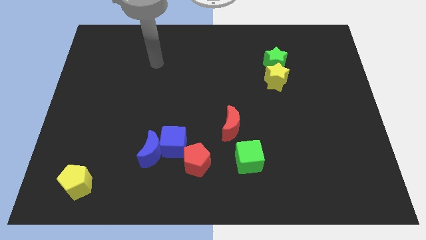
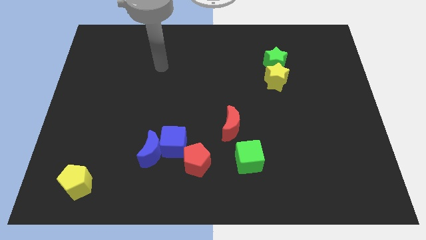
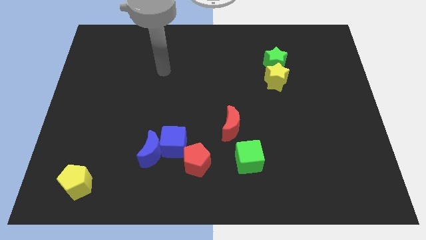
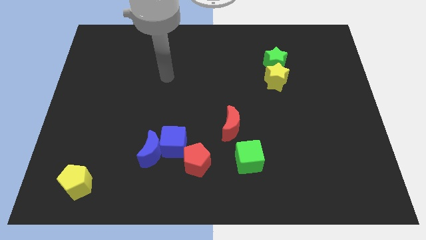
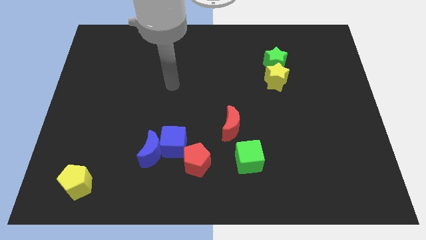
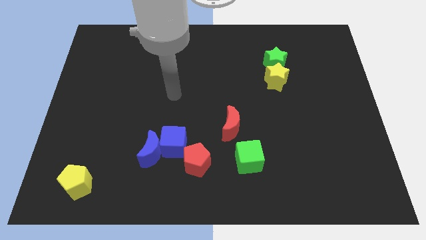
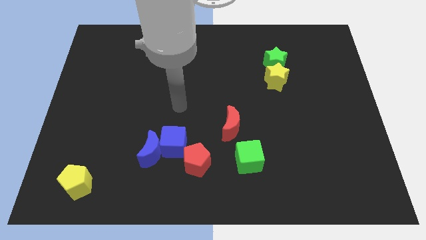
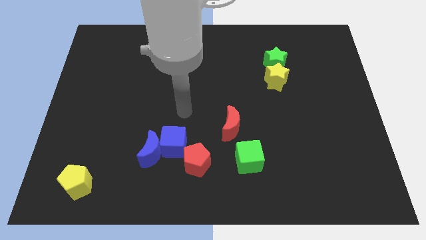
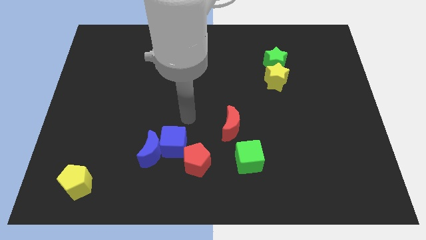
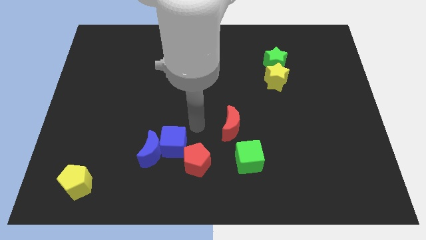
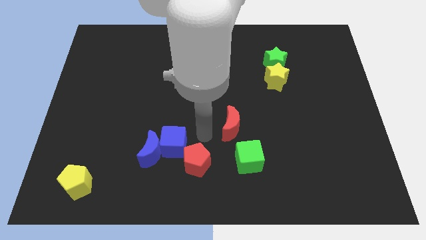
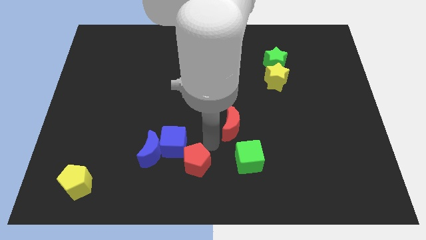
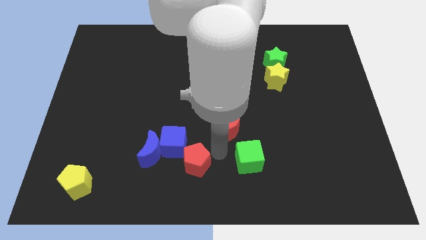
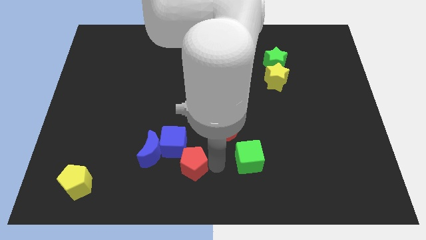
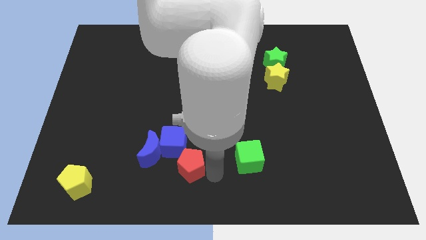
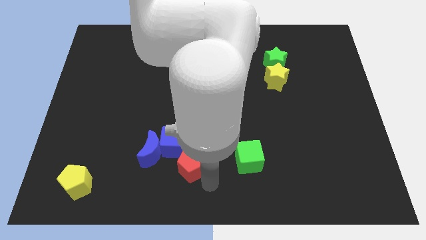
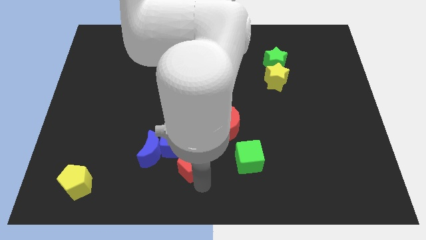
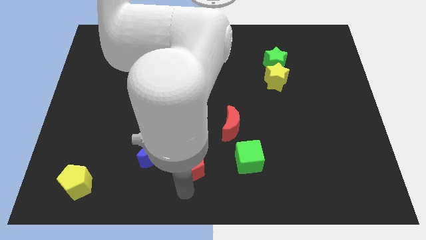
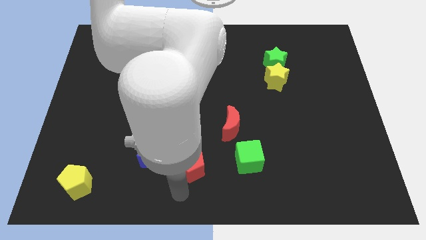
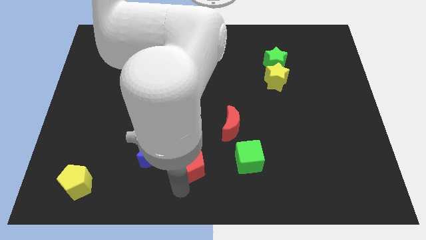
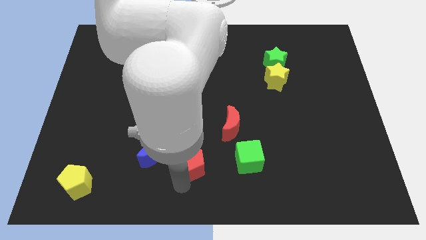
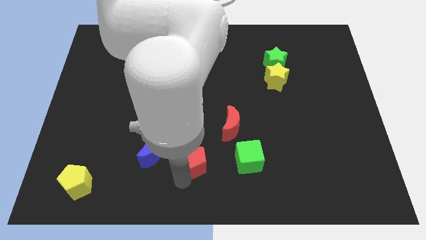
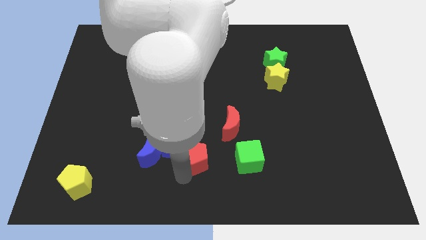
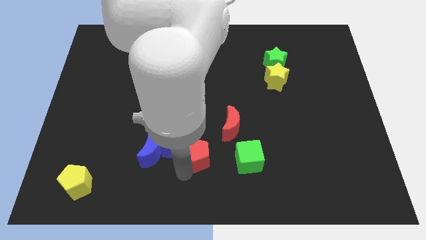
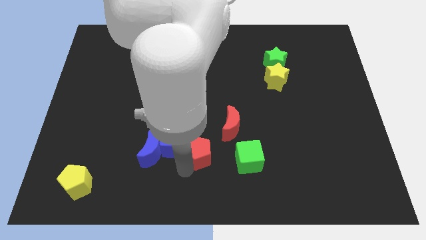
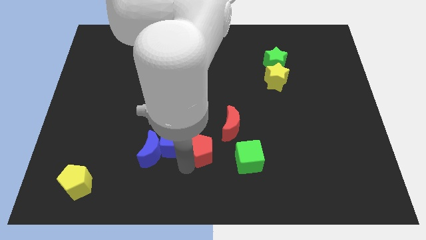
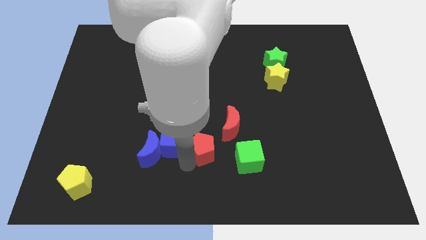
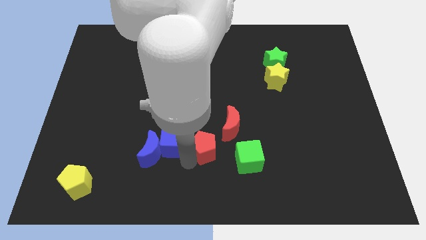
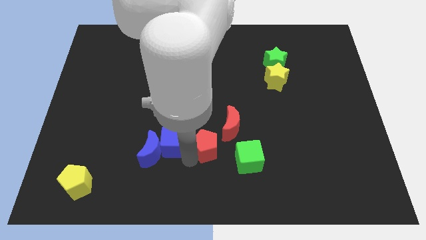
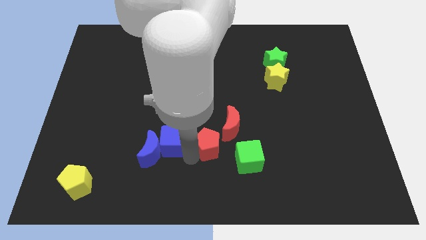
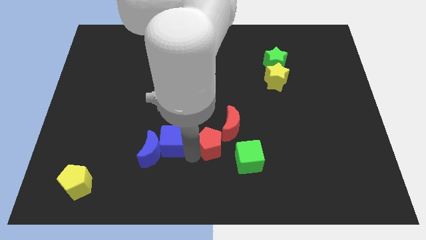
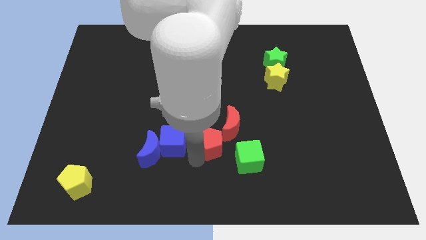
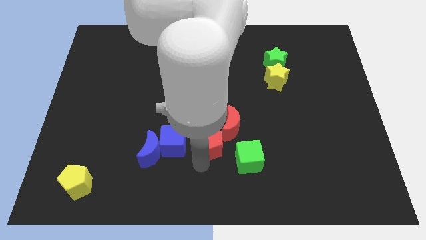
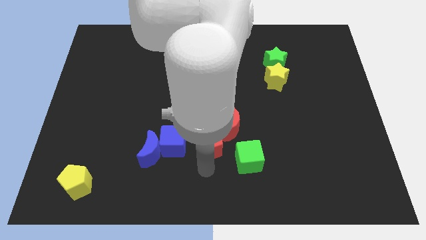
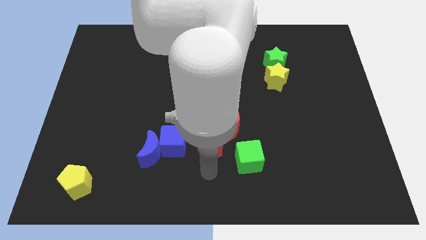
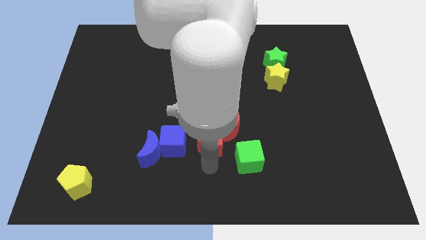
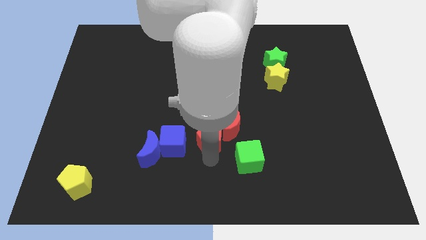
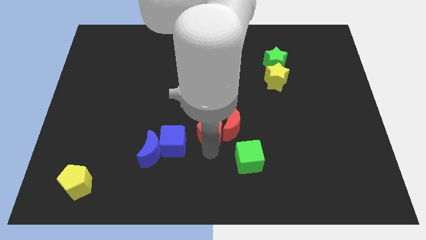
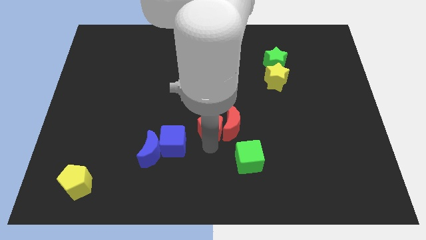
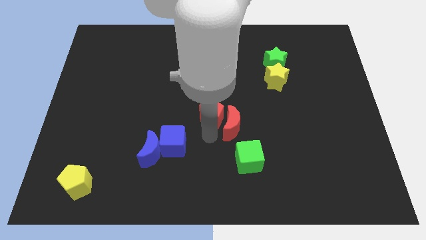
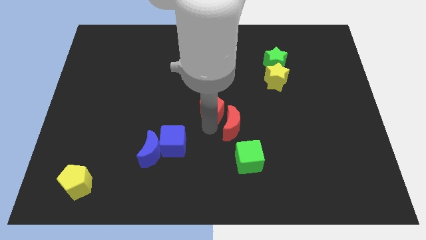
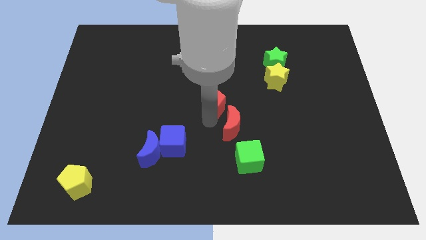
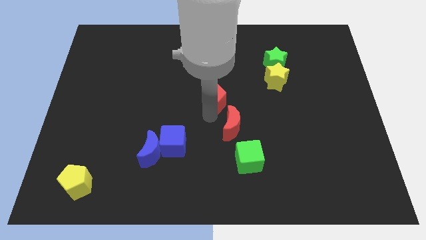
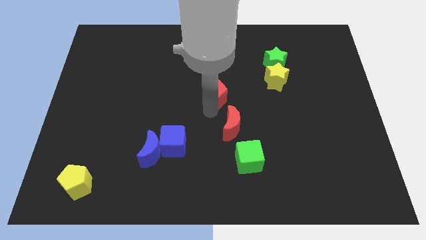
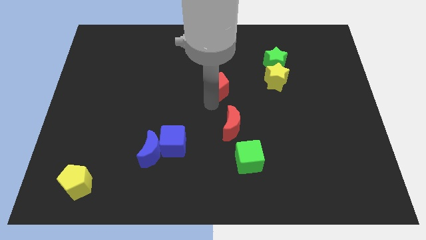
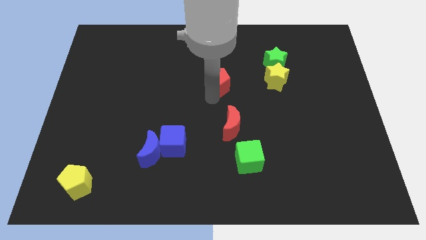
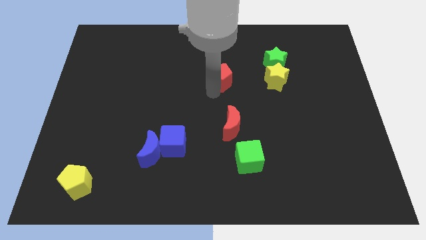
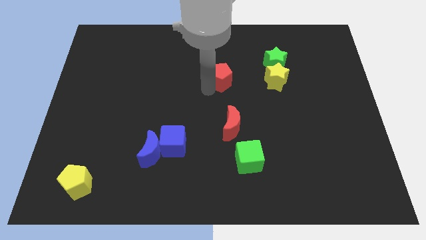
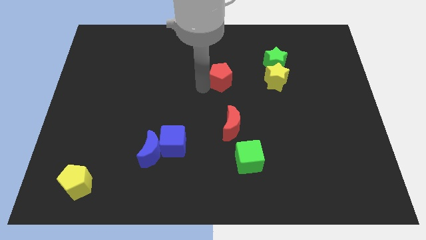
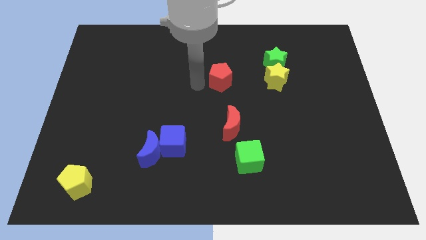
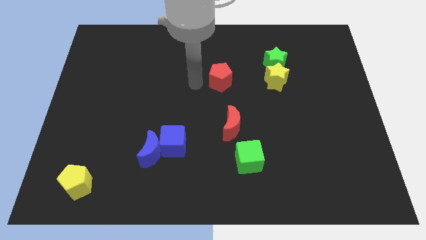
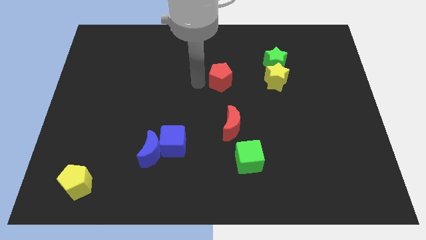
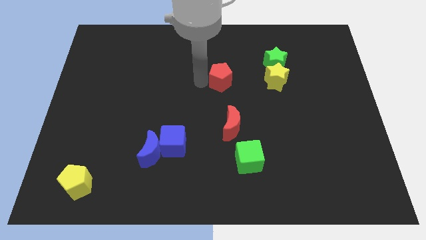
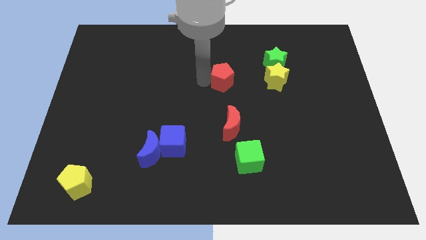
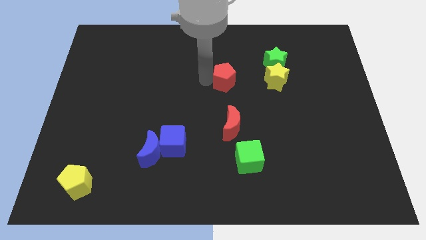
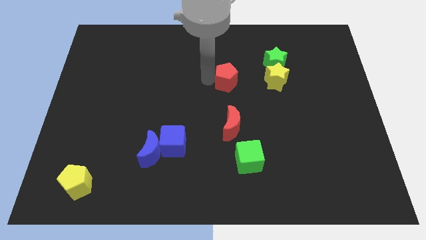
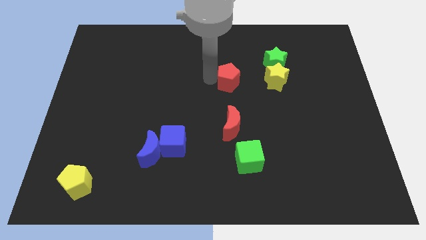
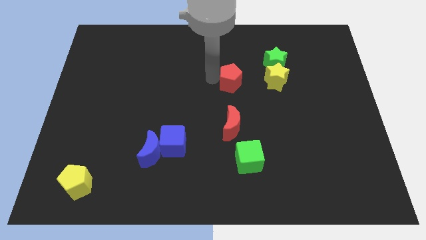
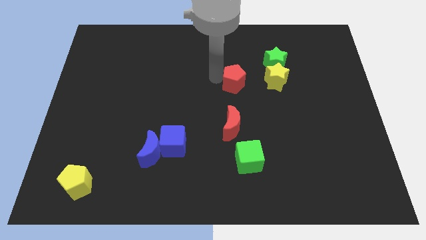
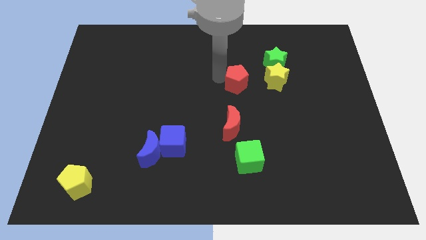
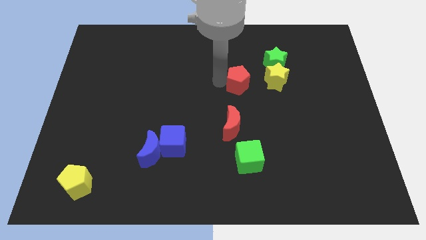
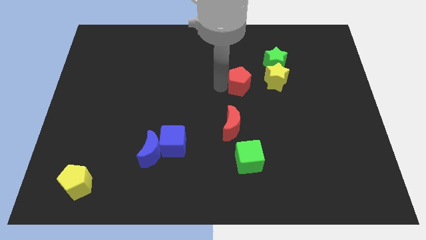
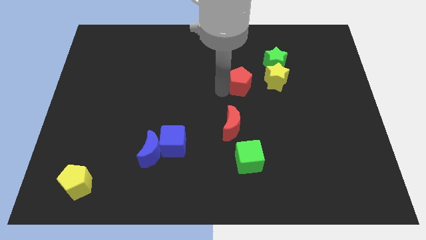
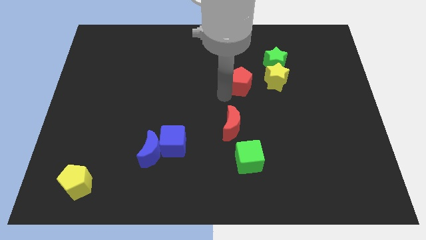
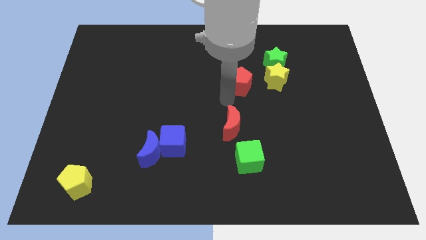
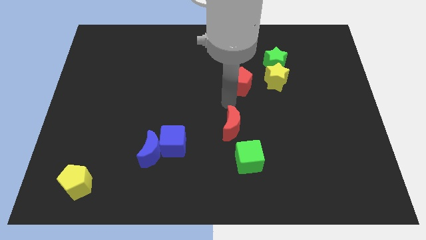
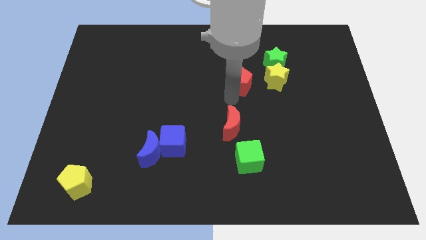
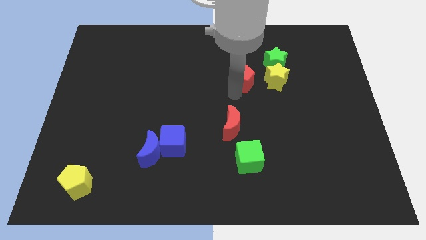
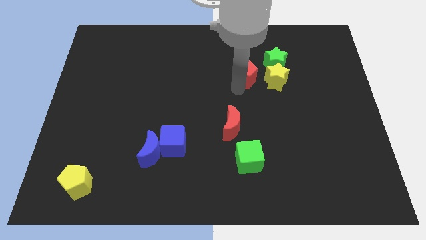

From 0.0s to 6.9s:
move the red pentagon diagonally up and to the left of the yellow star
